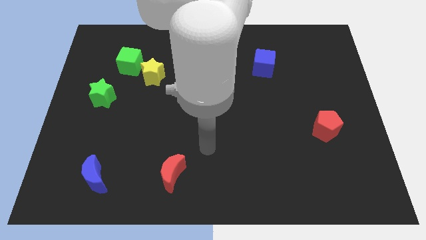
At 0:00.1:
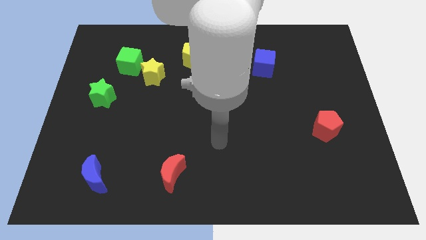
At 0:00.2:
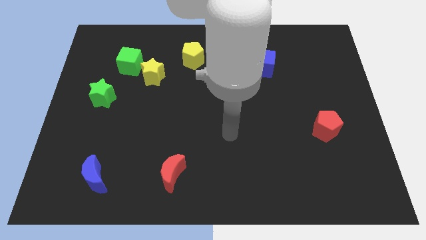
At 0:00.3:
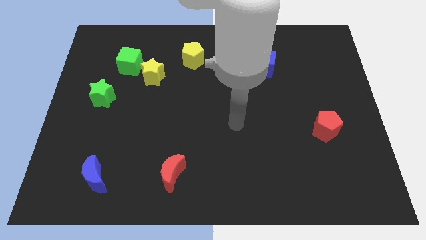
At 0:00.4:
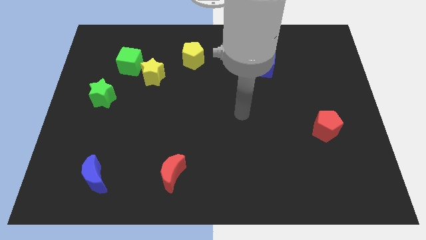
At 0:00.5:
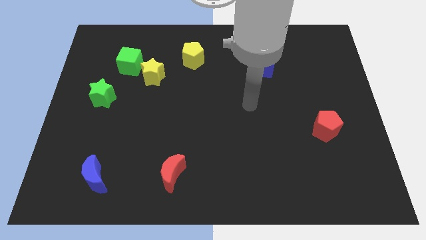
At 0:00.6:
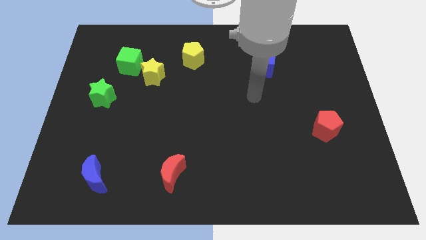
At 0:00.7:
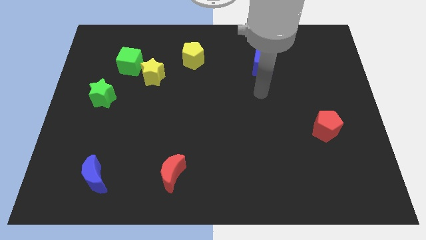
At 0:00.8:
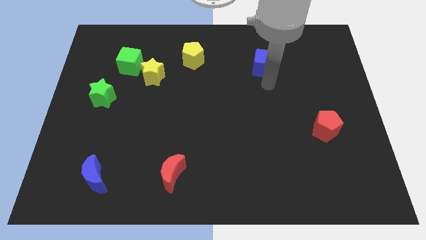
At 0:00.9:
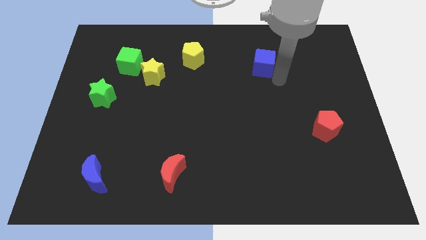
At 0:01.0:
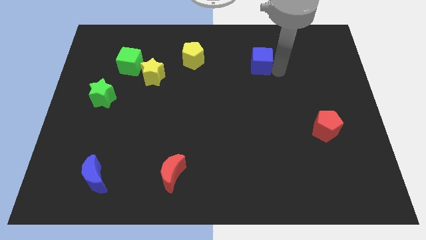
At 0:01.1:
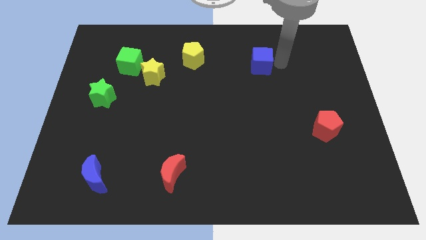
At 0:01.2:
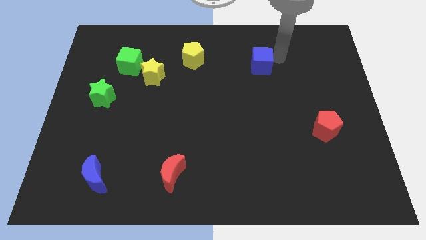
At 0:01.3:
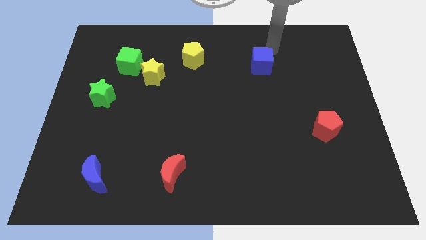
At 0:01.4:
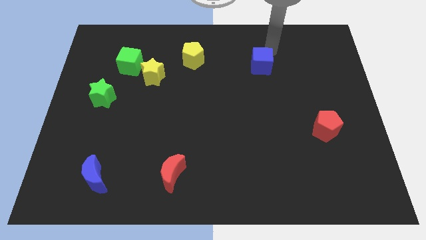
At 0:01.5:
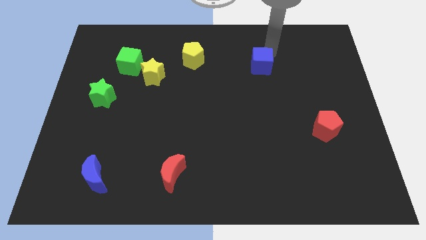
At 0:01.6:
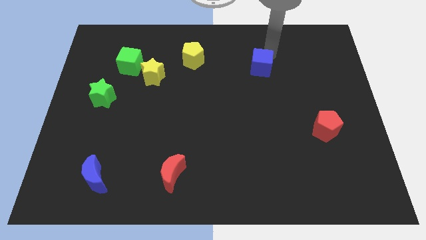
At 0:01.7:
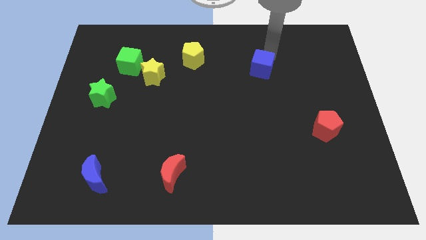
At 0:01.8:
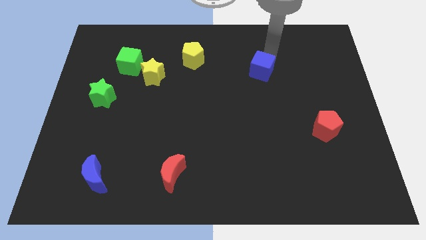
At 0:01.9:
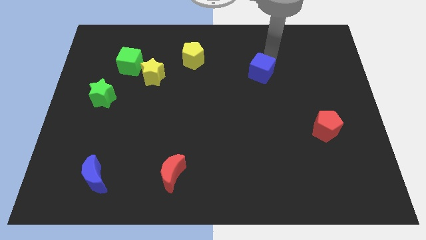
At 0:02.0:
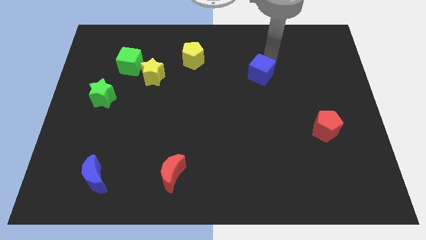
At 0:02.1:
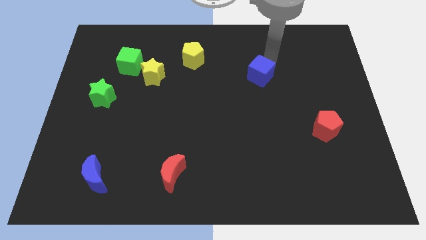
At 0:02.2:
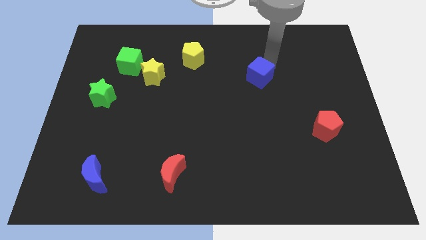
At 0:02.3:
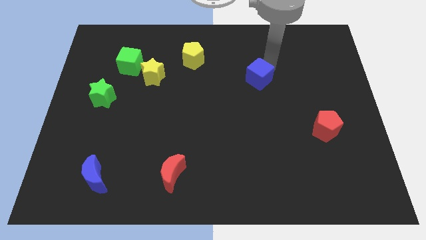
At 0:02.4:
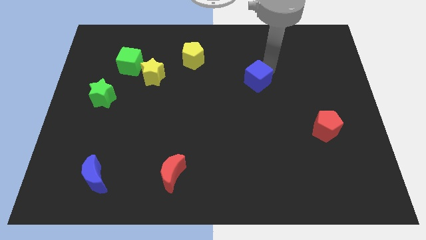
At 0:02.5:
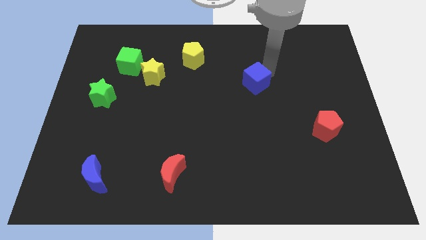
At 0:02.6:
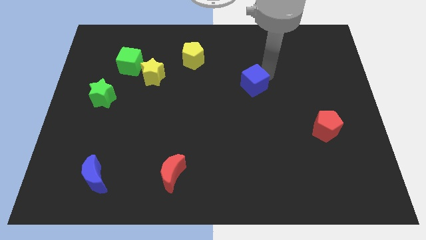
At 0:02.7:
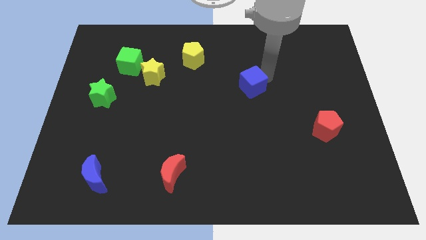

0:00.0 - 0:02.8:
push the blue cube downwards and then to the left slightly

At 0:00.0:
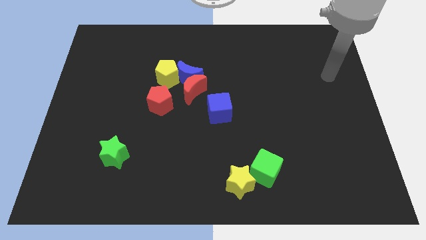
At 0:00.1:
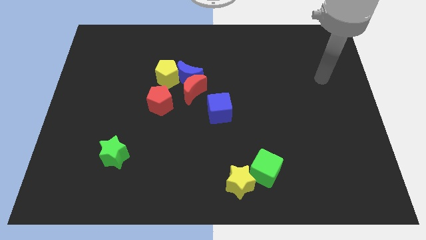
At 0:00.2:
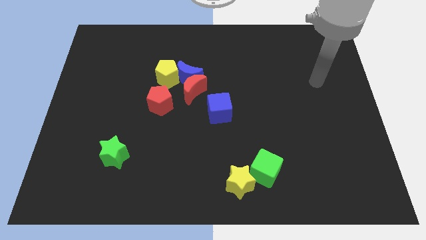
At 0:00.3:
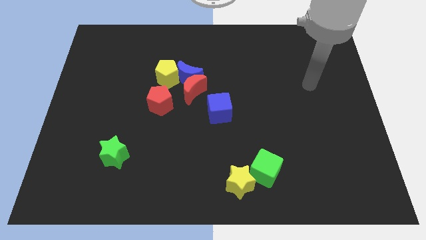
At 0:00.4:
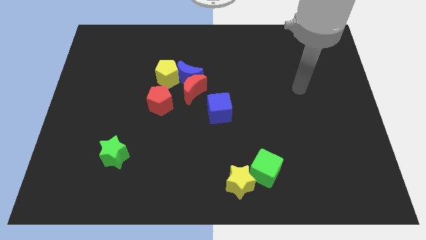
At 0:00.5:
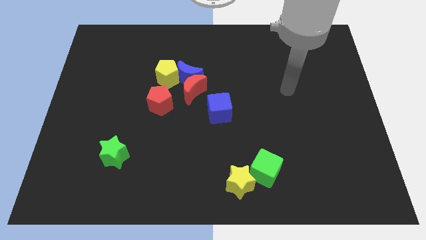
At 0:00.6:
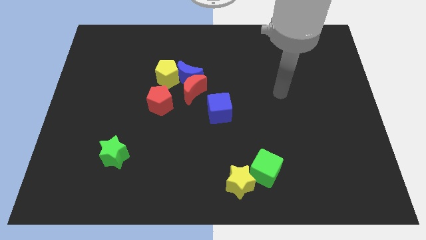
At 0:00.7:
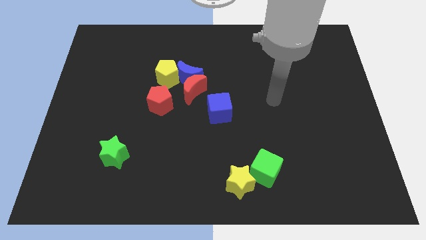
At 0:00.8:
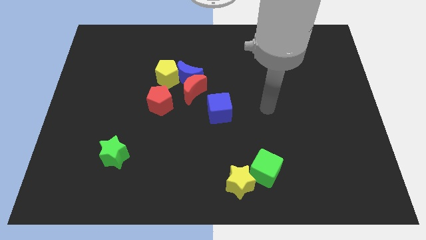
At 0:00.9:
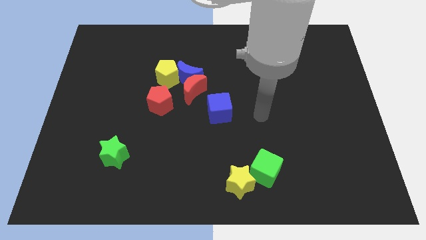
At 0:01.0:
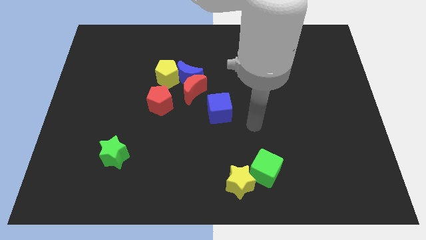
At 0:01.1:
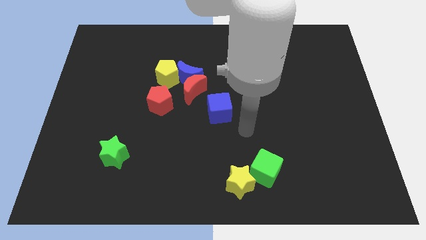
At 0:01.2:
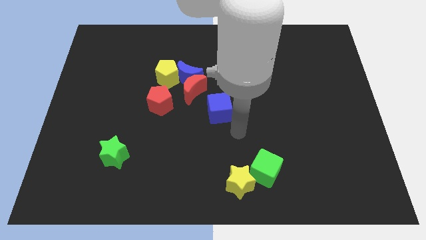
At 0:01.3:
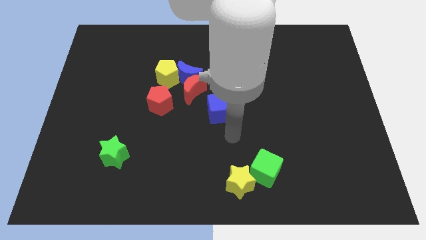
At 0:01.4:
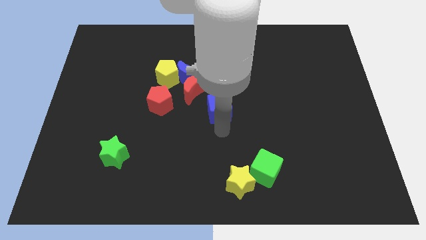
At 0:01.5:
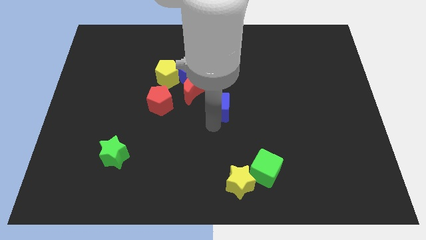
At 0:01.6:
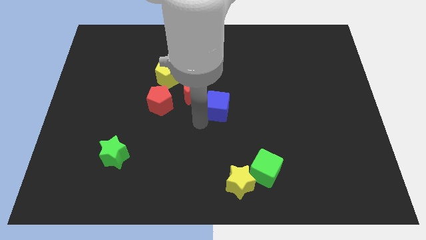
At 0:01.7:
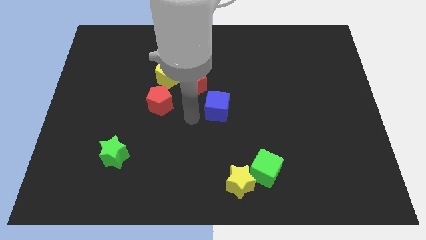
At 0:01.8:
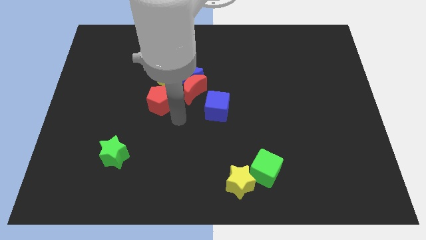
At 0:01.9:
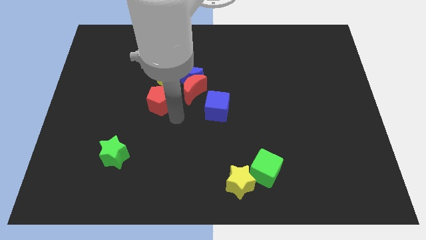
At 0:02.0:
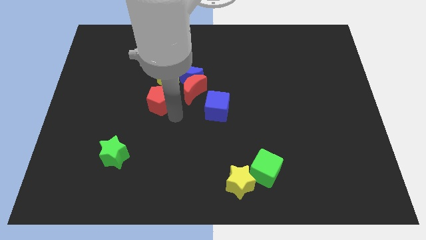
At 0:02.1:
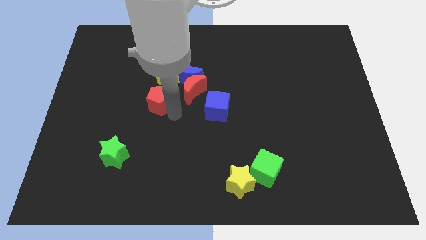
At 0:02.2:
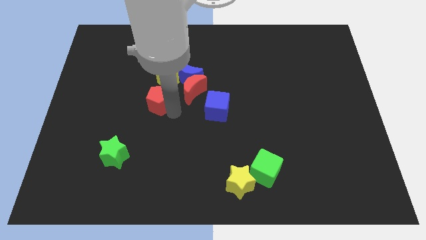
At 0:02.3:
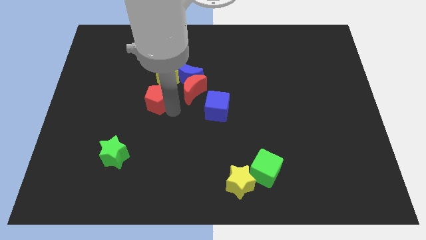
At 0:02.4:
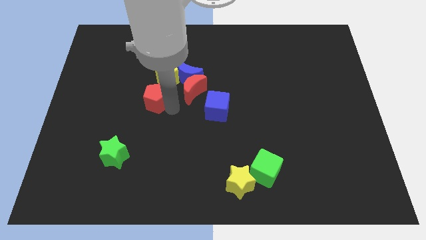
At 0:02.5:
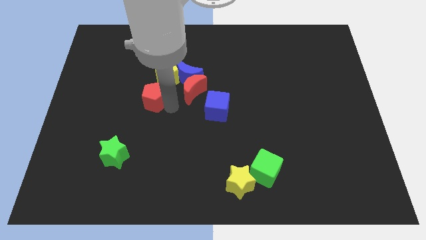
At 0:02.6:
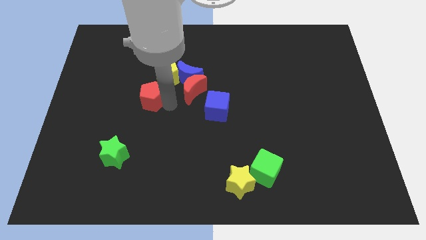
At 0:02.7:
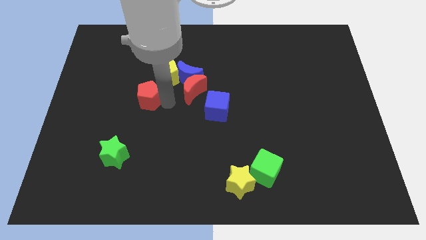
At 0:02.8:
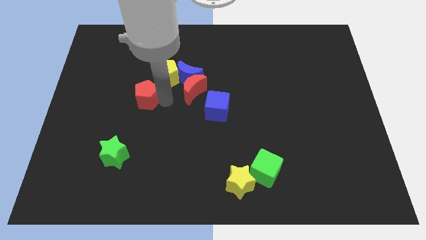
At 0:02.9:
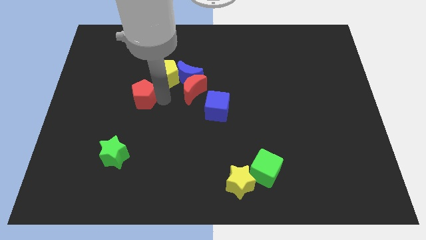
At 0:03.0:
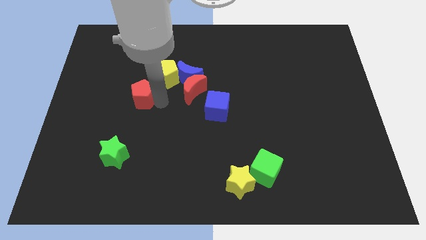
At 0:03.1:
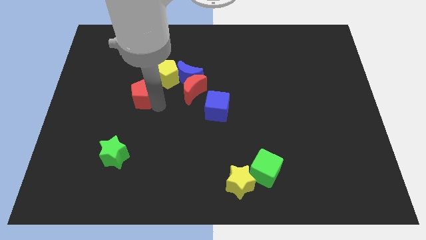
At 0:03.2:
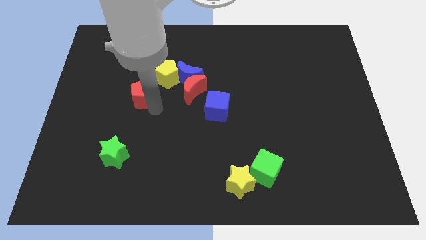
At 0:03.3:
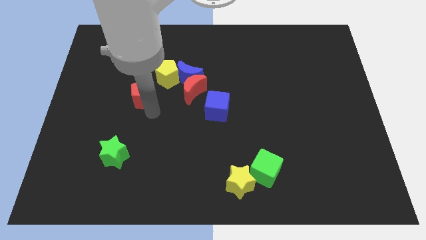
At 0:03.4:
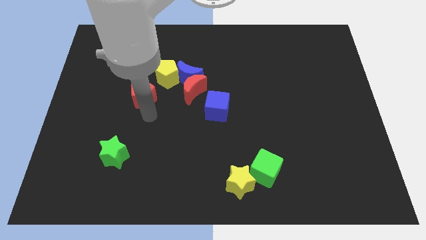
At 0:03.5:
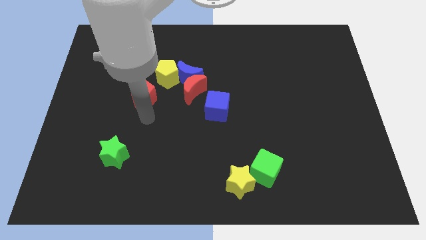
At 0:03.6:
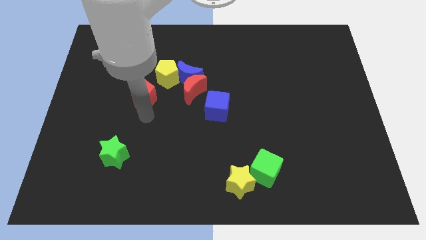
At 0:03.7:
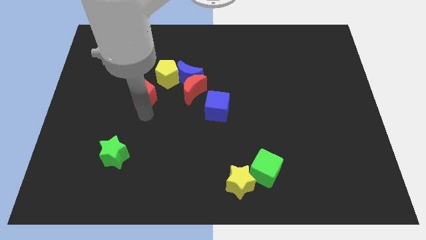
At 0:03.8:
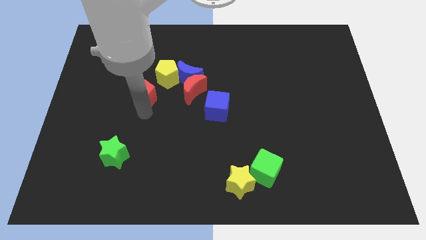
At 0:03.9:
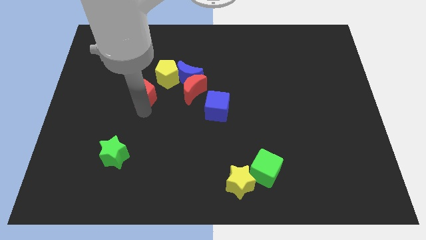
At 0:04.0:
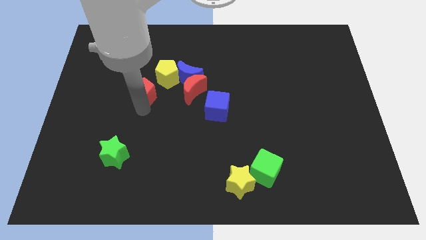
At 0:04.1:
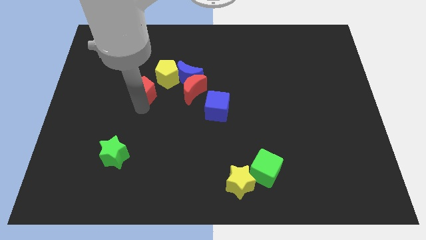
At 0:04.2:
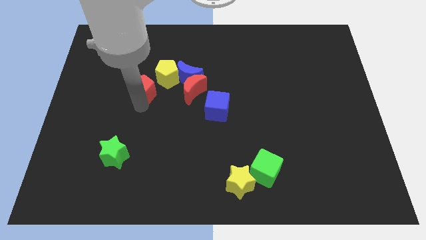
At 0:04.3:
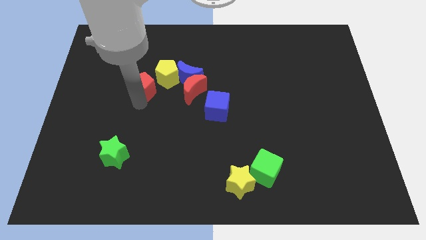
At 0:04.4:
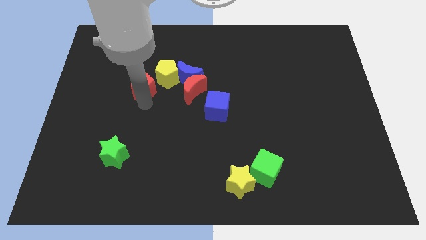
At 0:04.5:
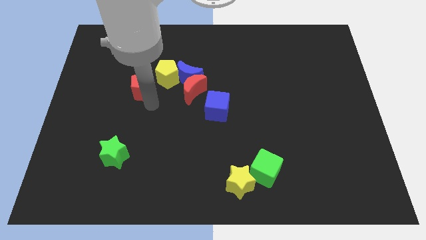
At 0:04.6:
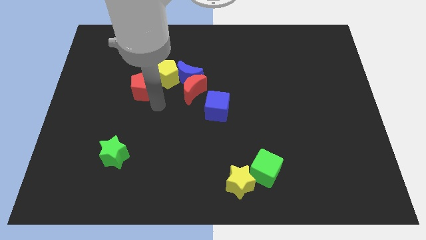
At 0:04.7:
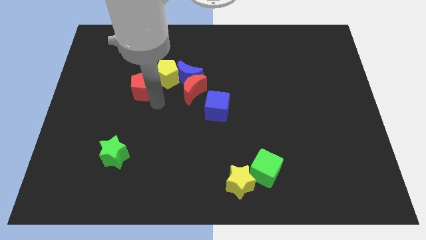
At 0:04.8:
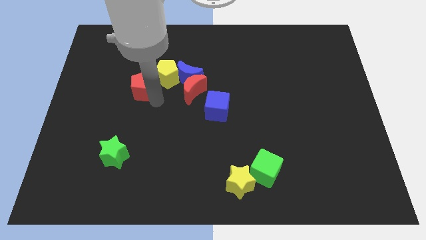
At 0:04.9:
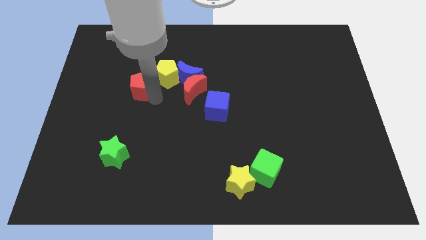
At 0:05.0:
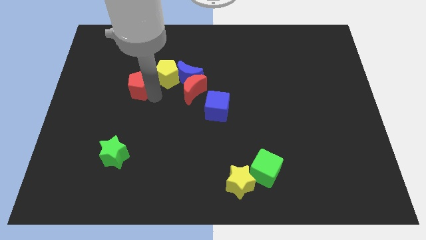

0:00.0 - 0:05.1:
slightly slide the red pentagon diagonally upwards and left
